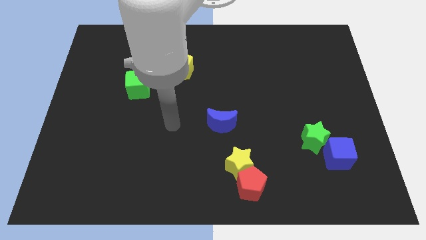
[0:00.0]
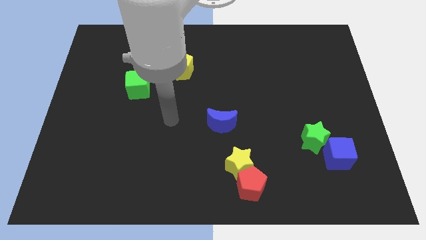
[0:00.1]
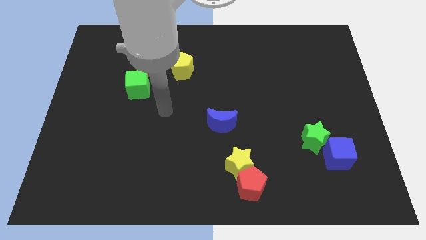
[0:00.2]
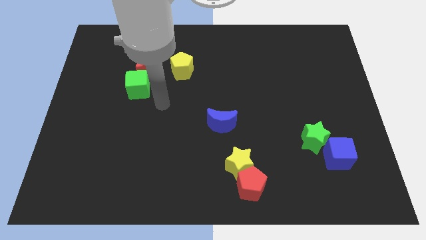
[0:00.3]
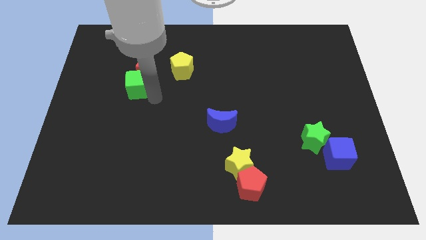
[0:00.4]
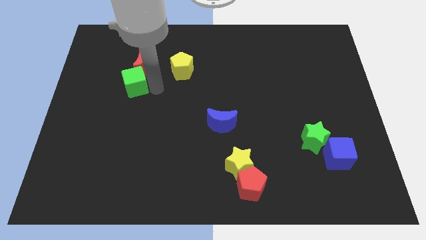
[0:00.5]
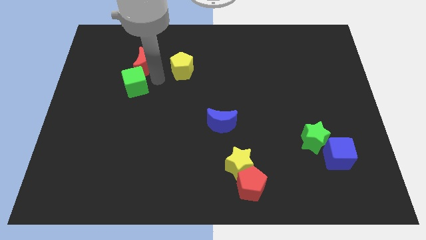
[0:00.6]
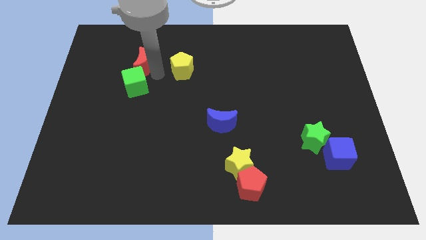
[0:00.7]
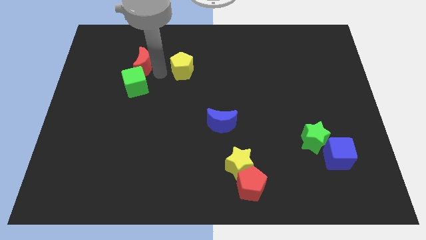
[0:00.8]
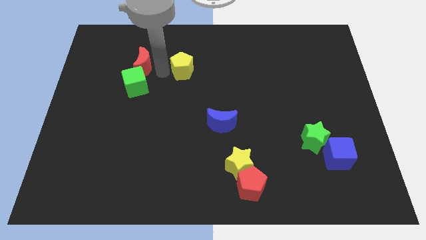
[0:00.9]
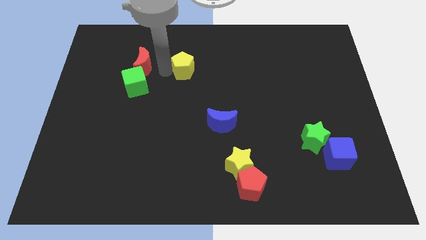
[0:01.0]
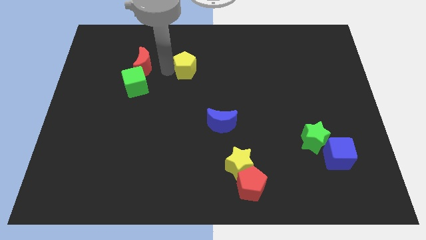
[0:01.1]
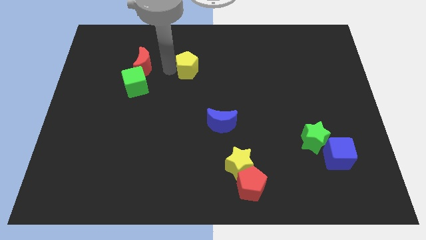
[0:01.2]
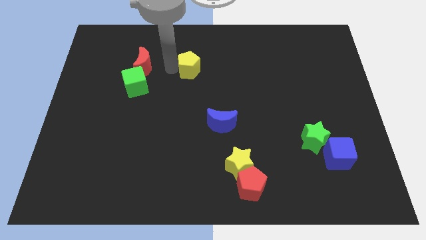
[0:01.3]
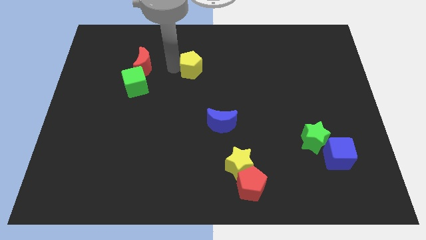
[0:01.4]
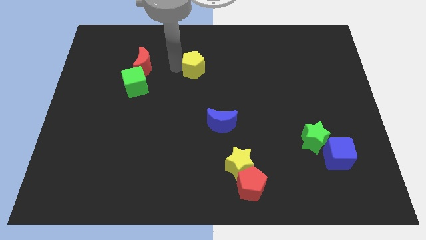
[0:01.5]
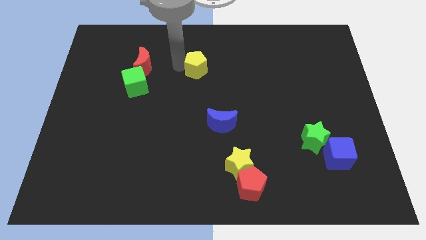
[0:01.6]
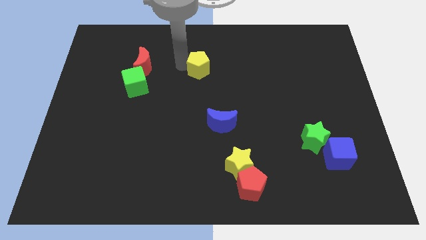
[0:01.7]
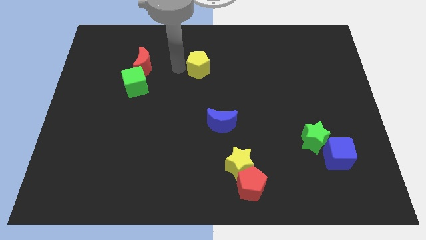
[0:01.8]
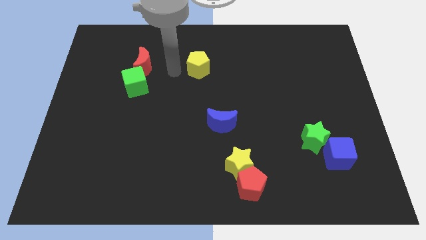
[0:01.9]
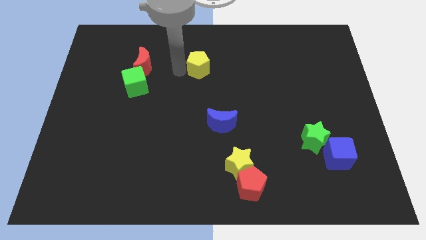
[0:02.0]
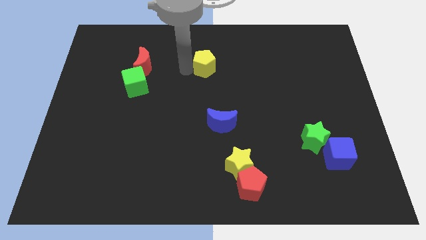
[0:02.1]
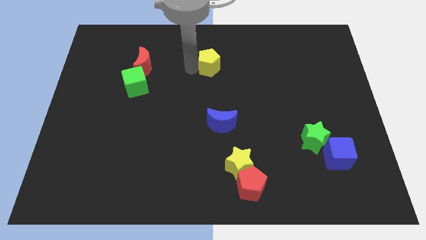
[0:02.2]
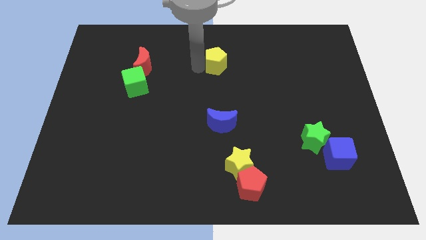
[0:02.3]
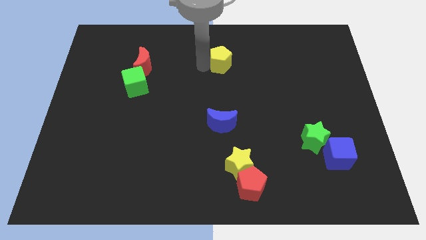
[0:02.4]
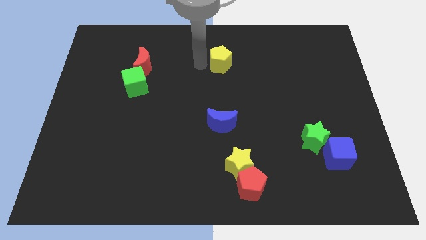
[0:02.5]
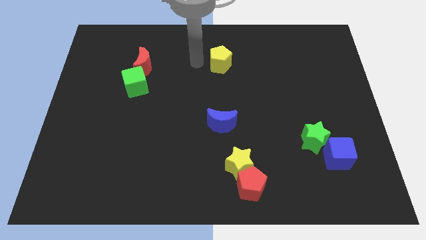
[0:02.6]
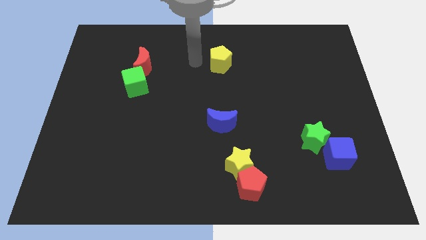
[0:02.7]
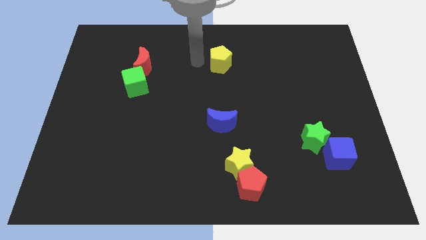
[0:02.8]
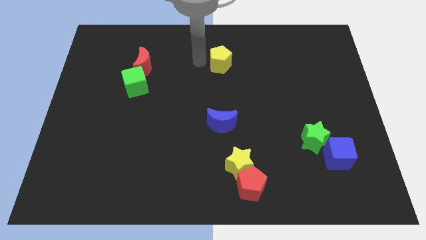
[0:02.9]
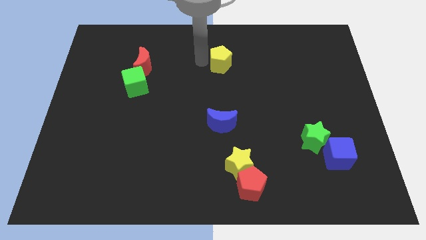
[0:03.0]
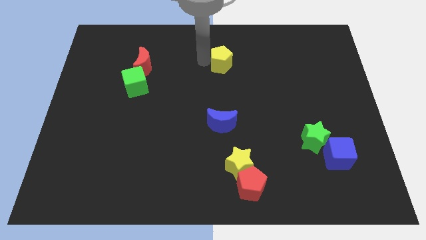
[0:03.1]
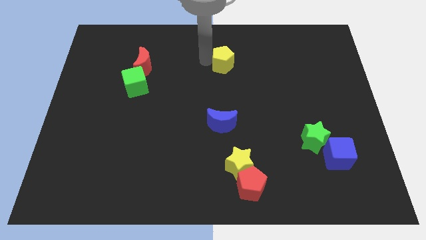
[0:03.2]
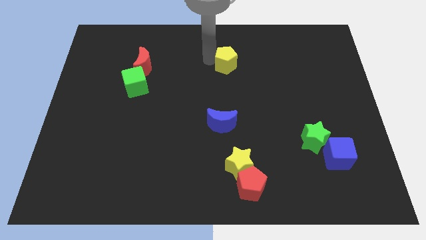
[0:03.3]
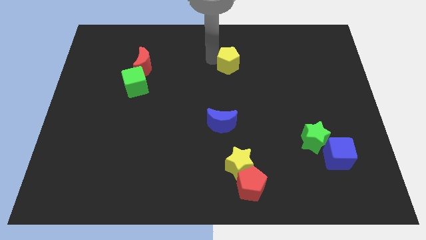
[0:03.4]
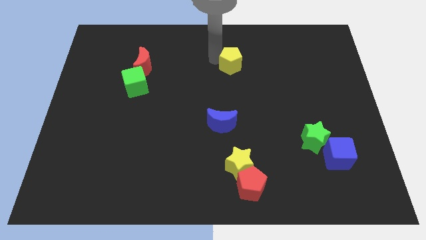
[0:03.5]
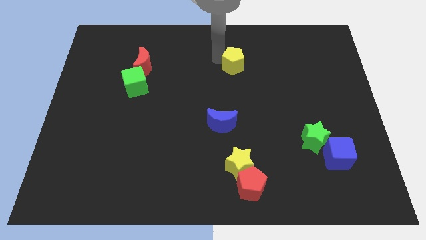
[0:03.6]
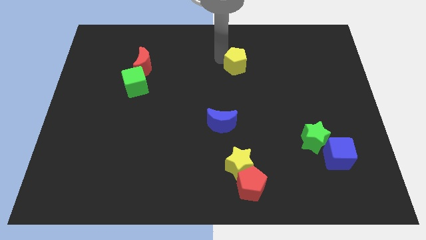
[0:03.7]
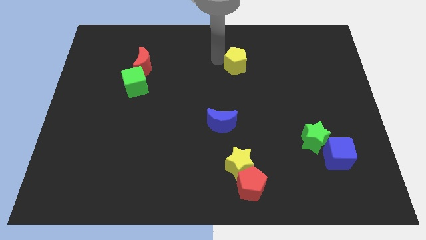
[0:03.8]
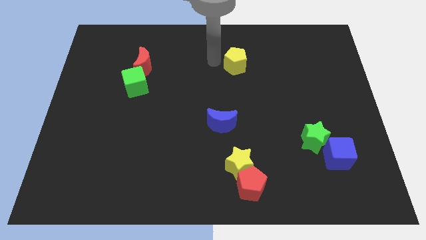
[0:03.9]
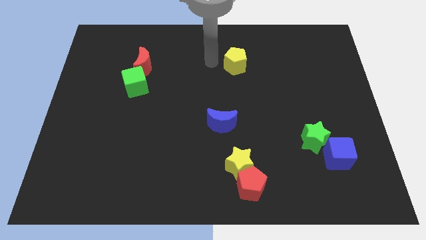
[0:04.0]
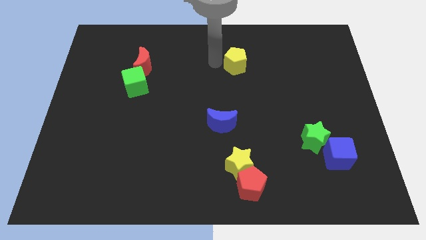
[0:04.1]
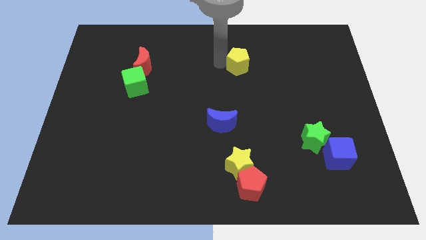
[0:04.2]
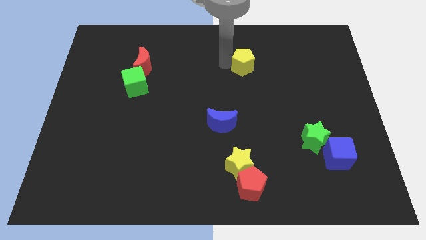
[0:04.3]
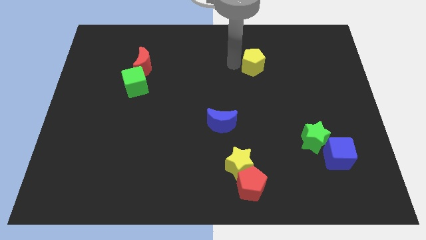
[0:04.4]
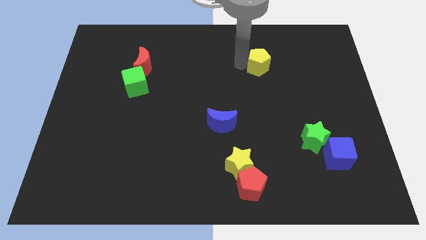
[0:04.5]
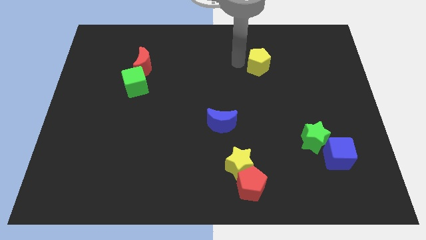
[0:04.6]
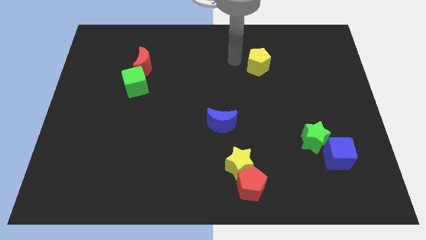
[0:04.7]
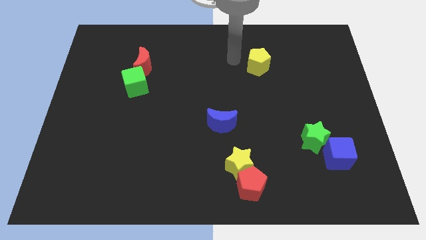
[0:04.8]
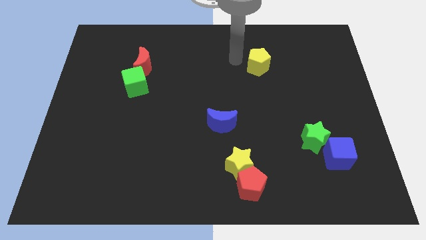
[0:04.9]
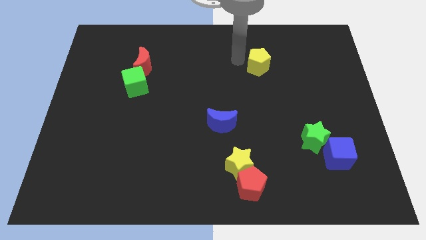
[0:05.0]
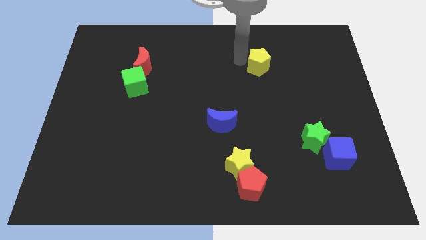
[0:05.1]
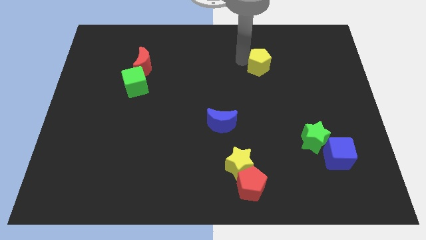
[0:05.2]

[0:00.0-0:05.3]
push the yellow pentagon to the right

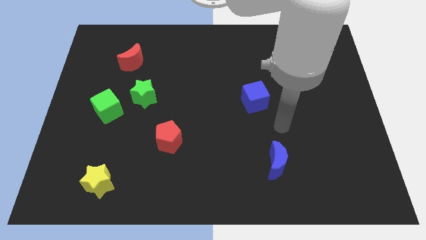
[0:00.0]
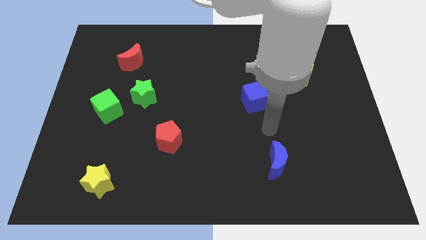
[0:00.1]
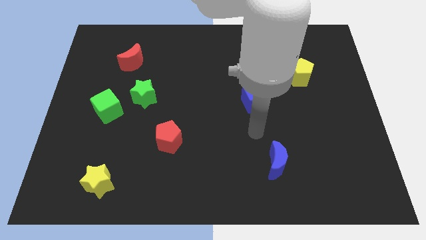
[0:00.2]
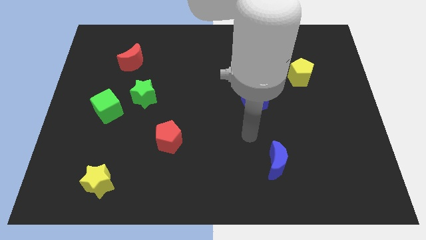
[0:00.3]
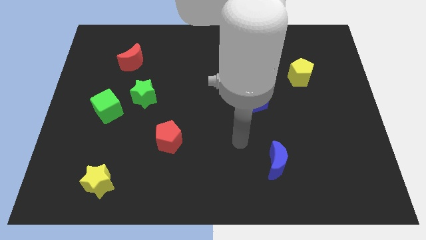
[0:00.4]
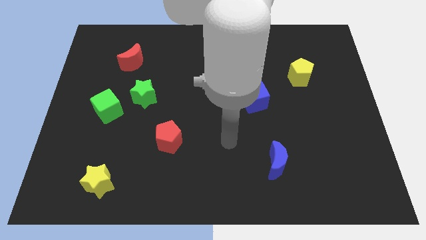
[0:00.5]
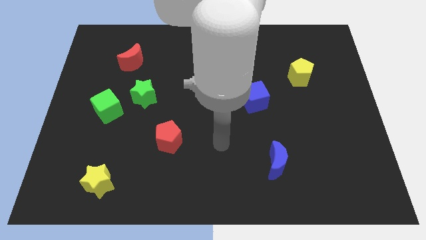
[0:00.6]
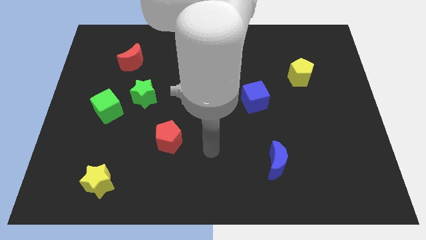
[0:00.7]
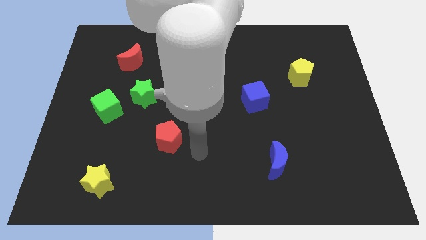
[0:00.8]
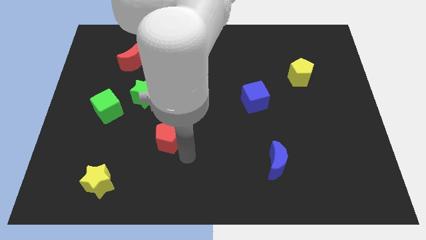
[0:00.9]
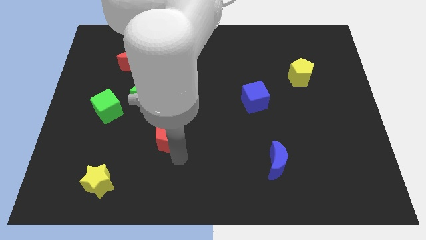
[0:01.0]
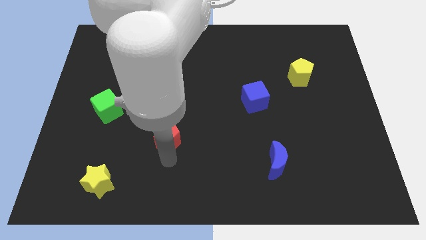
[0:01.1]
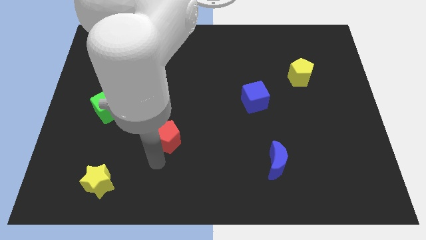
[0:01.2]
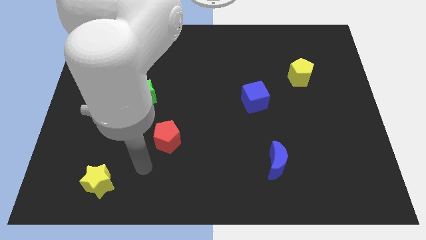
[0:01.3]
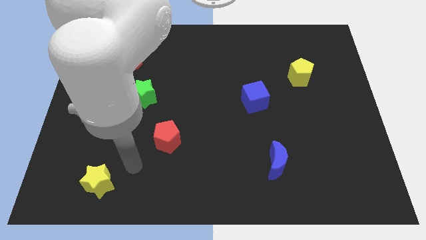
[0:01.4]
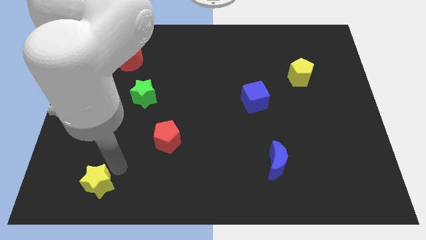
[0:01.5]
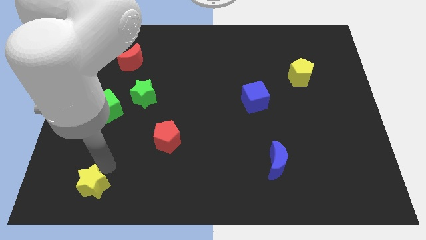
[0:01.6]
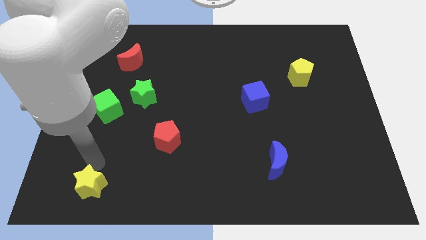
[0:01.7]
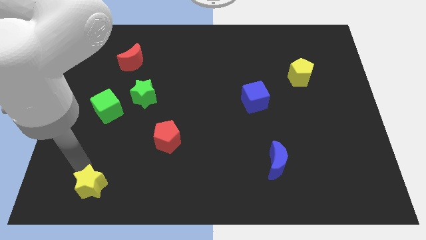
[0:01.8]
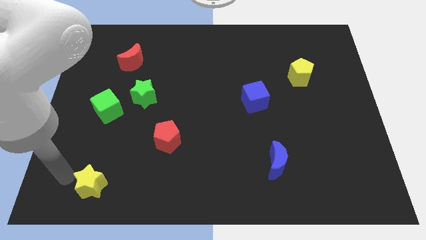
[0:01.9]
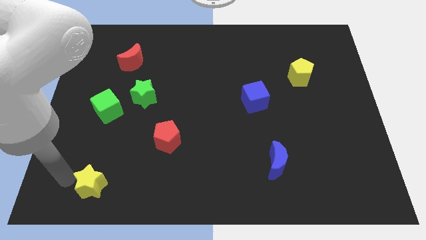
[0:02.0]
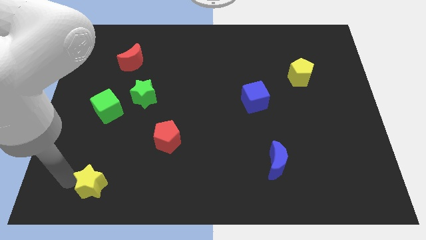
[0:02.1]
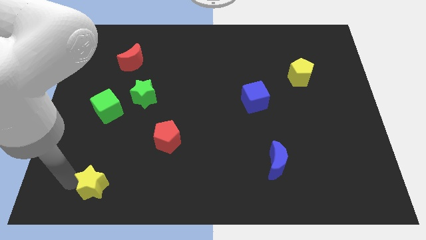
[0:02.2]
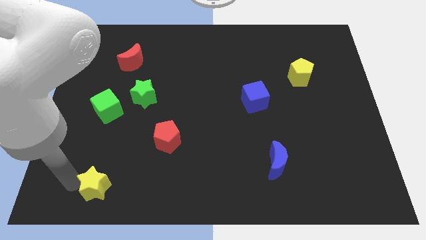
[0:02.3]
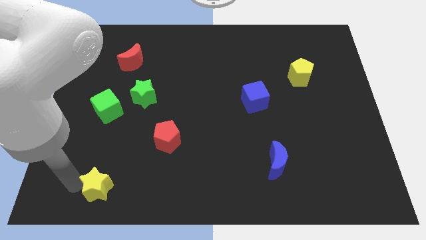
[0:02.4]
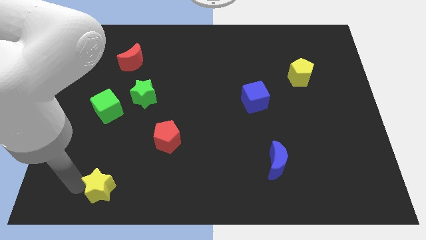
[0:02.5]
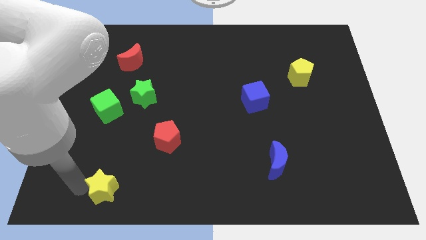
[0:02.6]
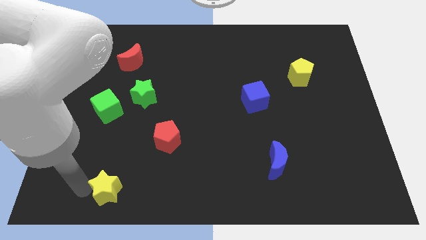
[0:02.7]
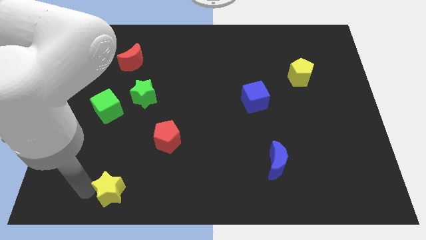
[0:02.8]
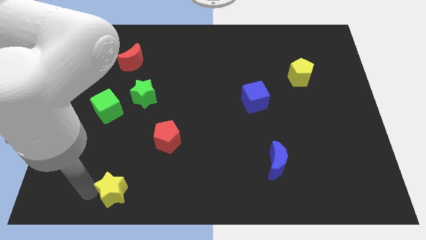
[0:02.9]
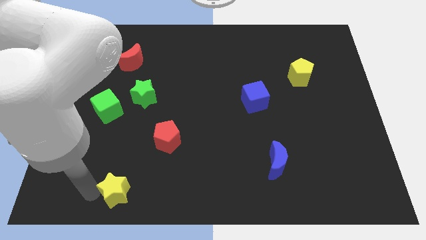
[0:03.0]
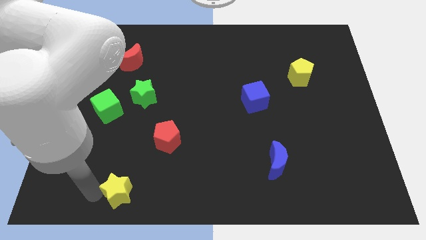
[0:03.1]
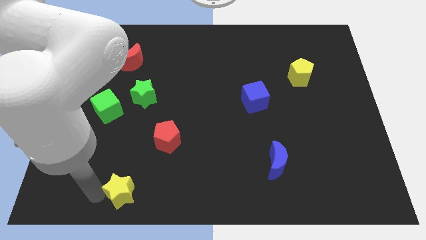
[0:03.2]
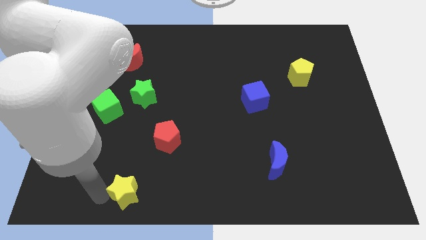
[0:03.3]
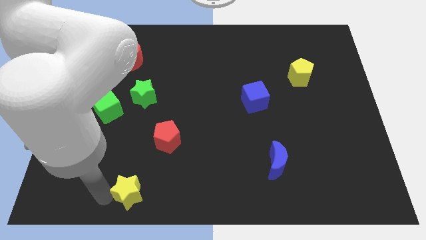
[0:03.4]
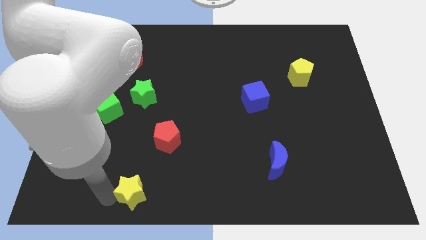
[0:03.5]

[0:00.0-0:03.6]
slightly push the yellow star right
